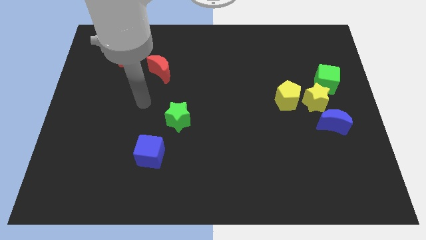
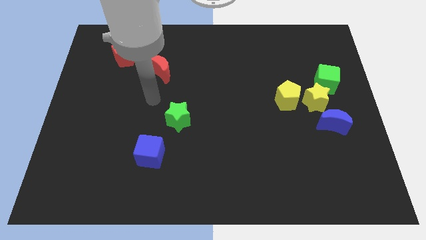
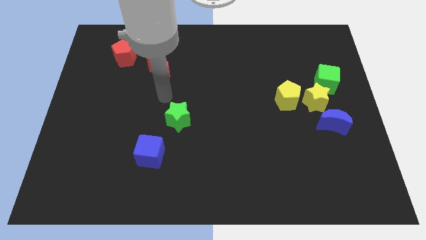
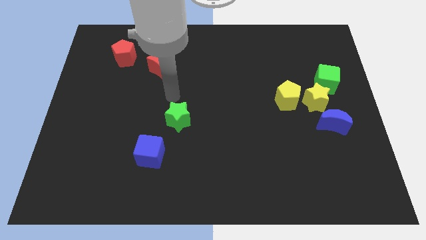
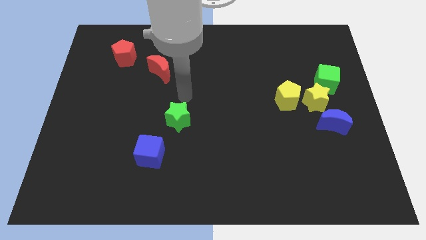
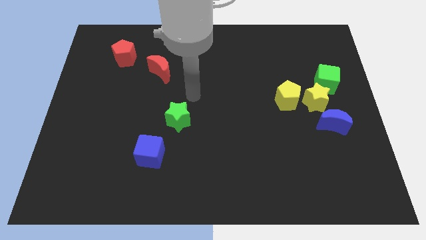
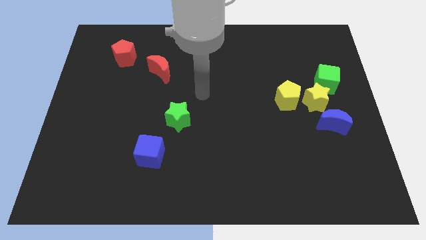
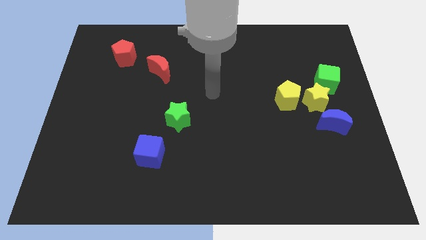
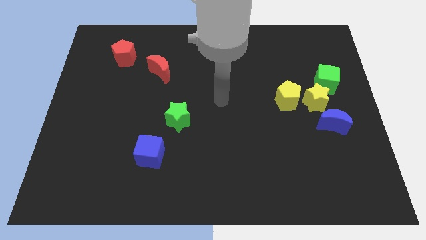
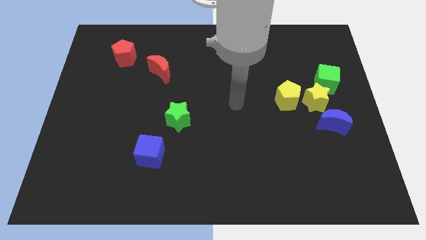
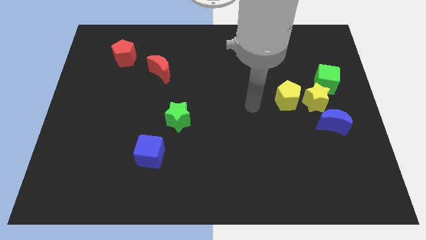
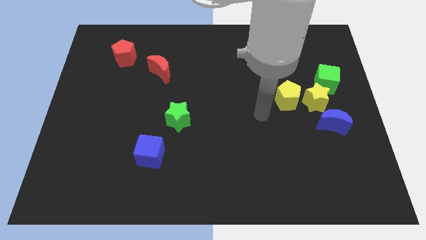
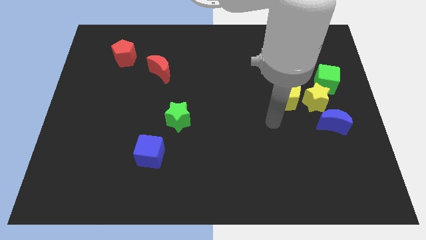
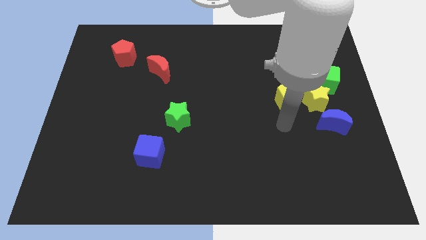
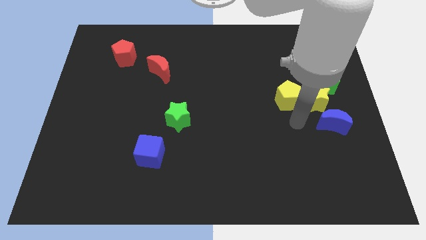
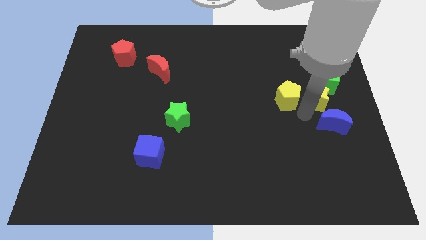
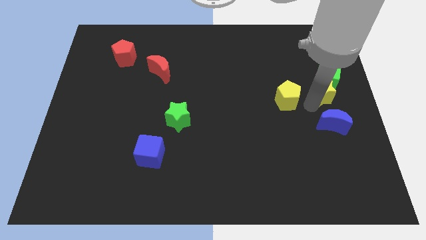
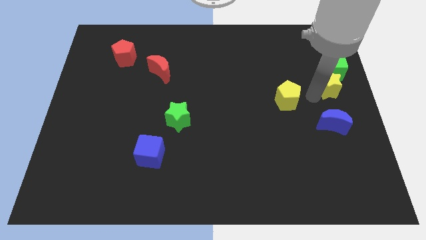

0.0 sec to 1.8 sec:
pull the yellow pentagon apart from the yellow star

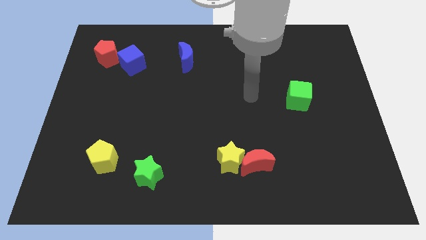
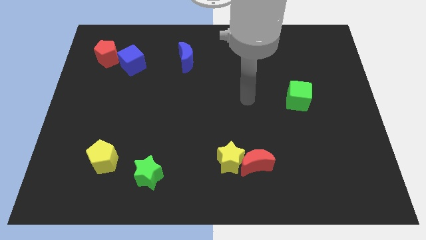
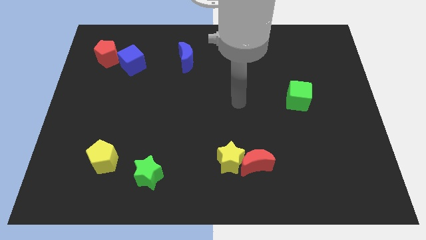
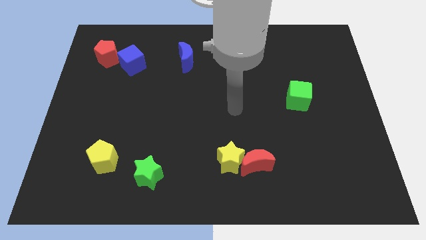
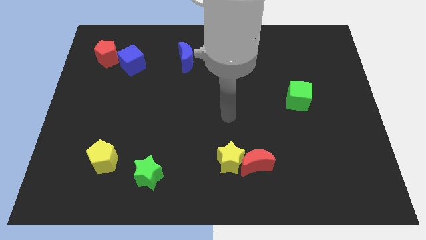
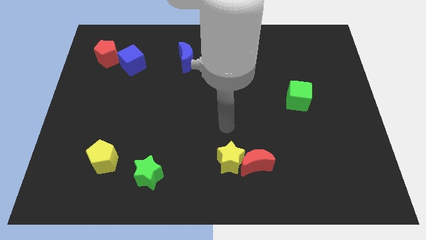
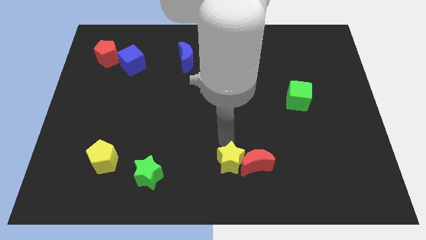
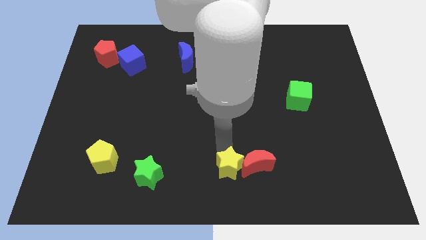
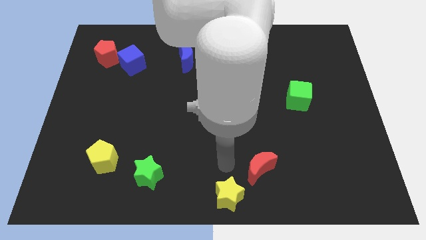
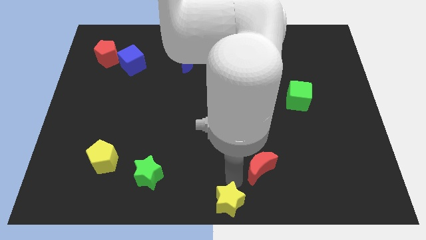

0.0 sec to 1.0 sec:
move the red moon away from the yellow star

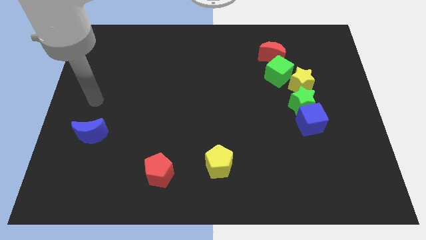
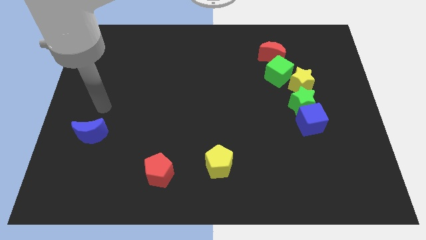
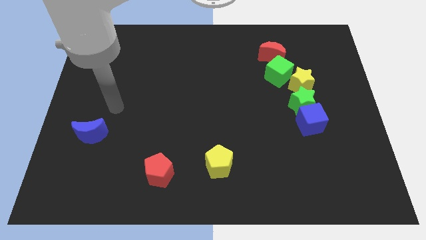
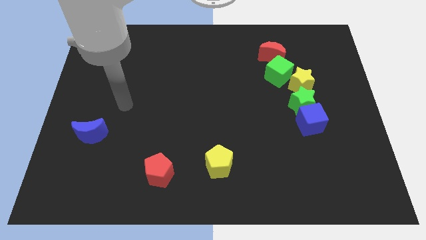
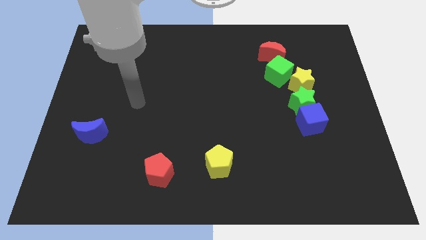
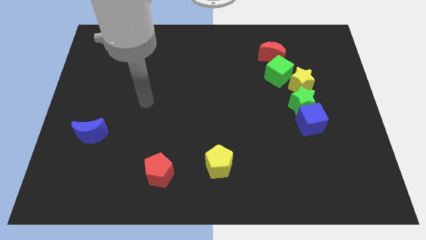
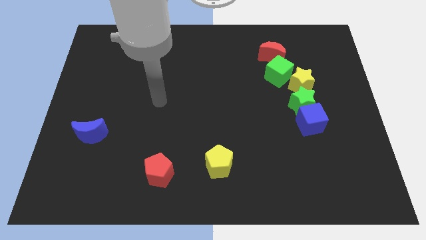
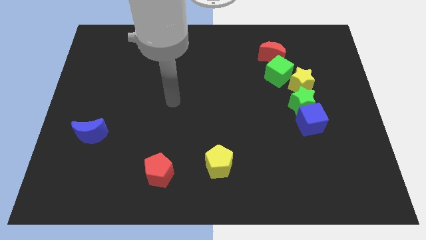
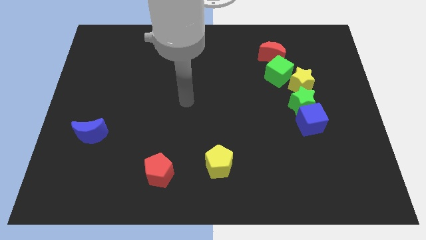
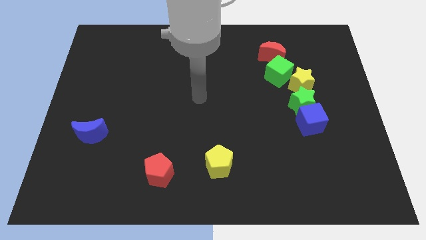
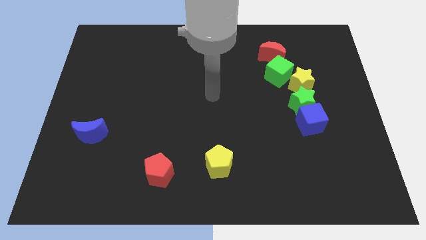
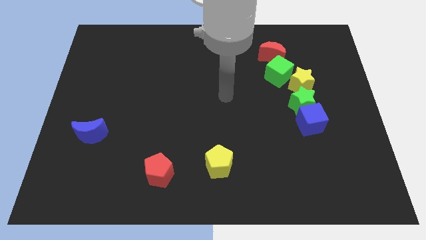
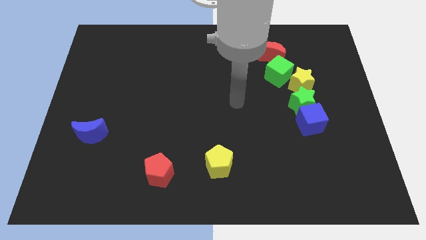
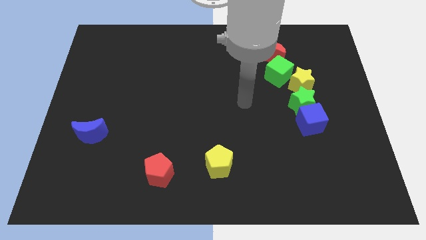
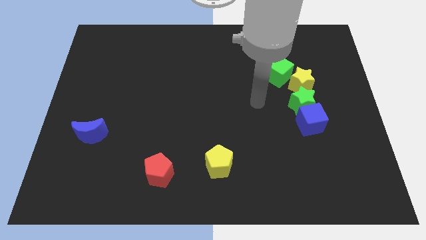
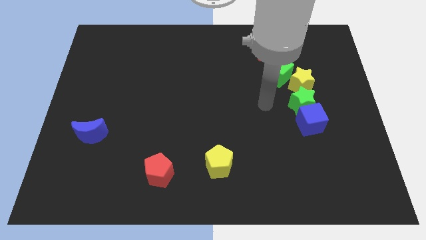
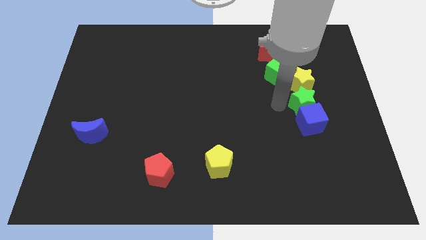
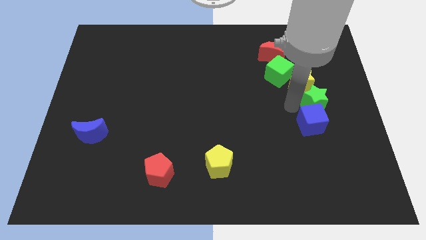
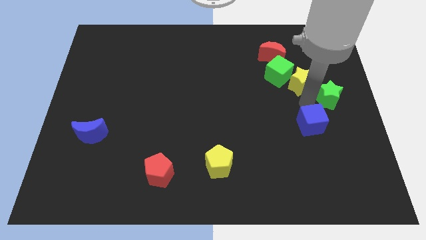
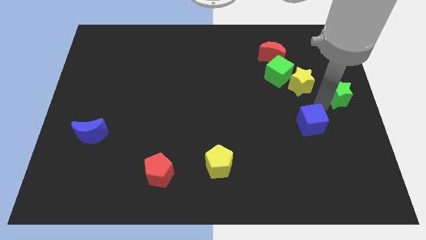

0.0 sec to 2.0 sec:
pull the blue cube apart from the green star

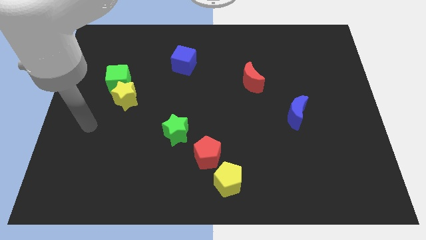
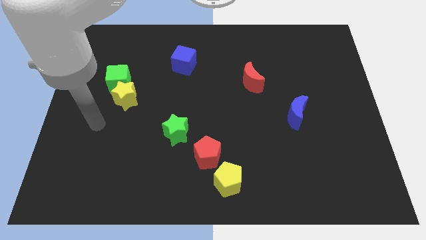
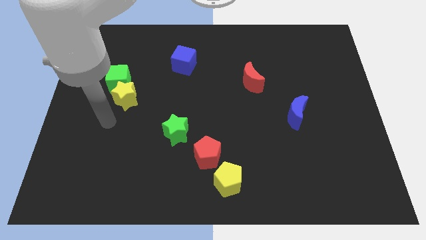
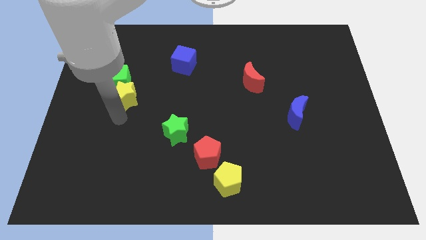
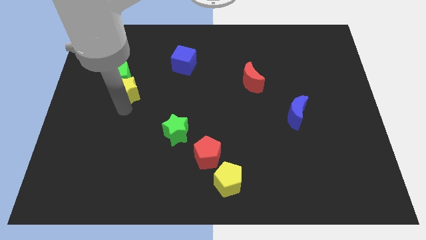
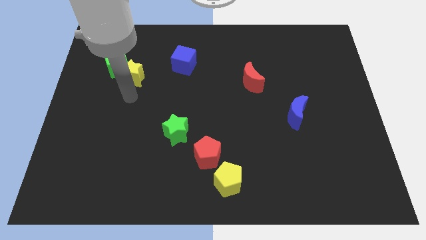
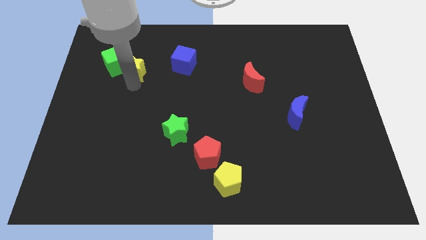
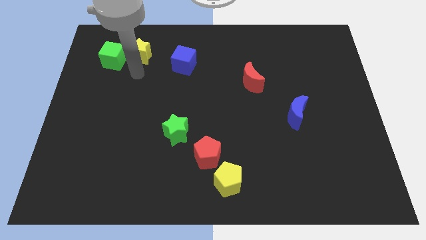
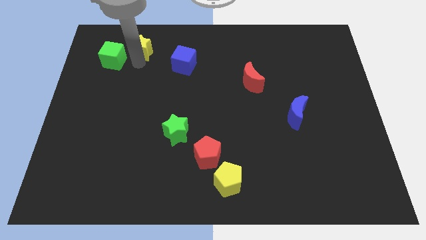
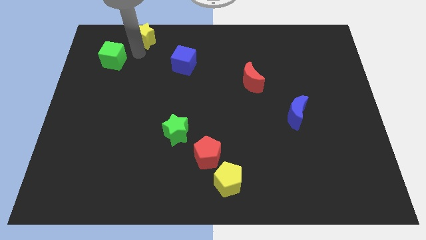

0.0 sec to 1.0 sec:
pull the green cube apart from the yellow star

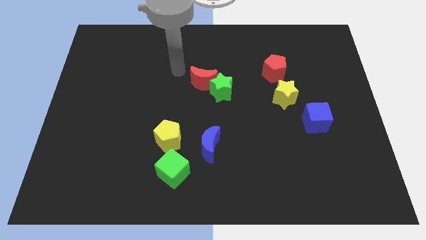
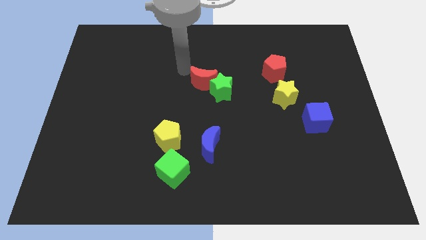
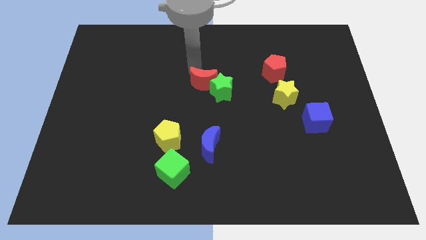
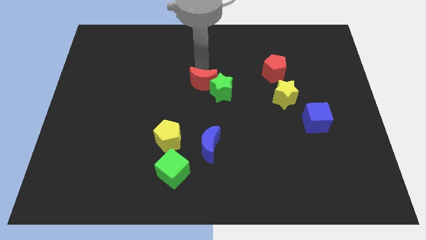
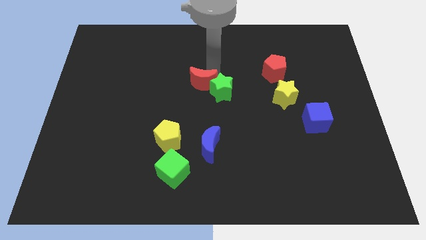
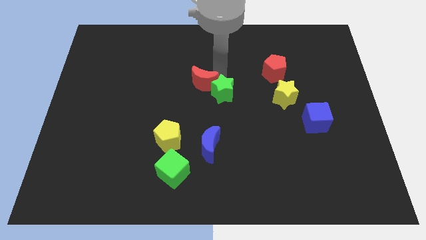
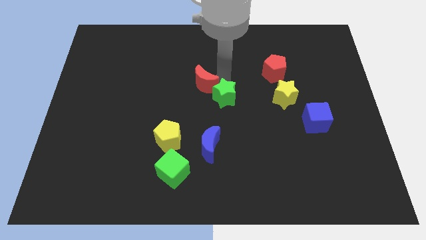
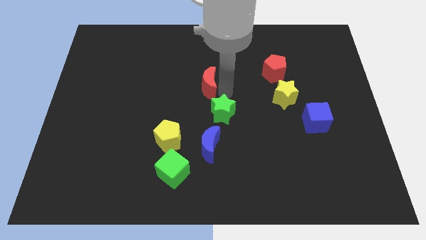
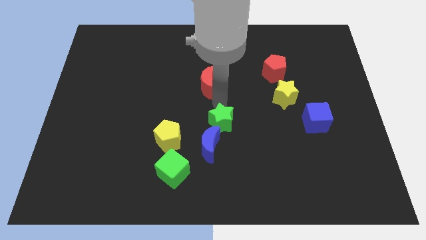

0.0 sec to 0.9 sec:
pull the red moon apart from the green star

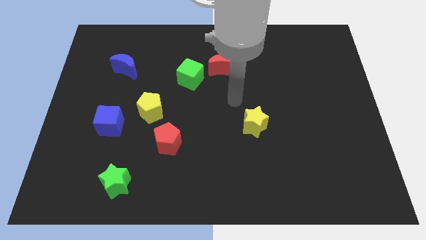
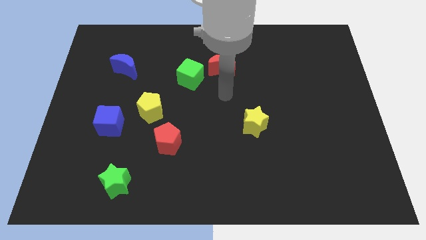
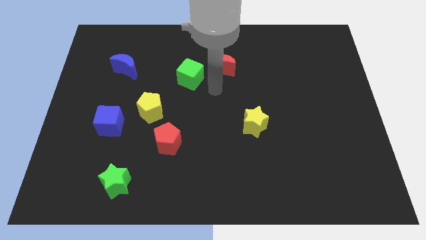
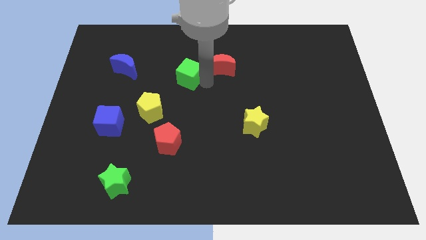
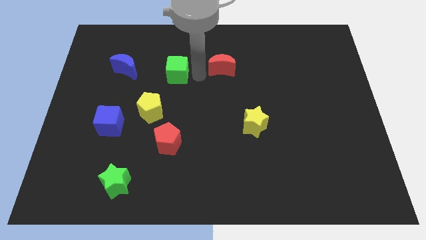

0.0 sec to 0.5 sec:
move the red moon away from the green cube

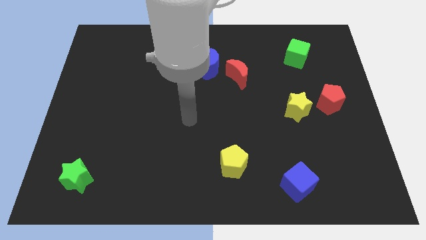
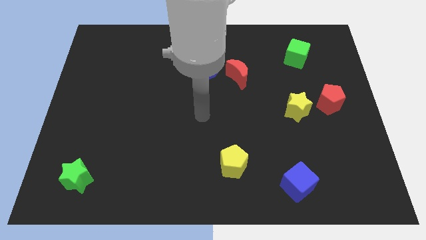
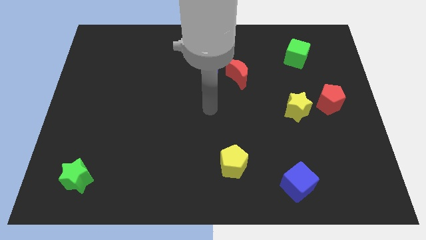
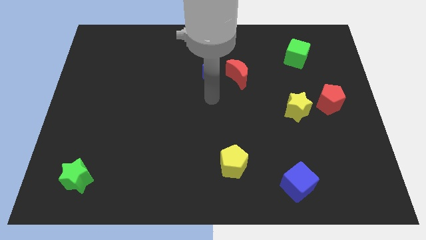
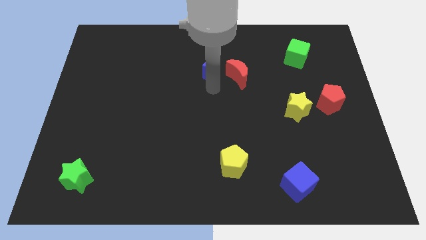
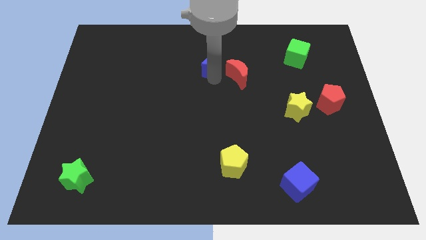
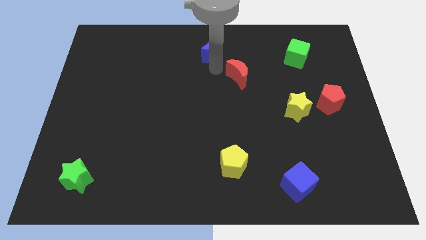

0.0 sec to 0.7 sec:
pull the red moon apart from the blue moon

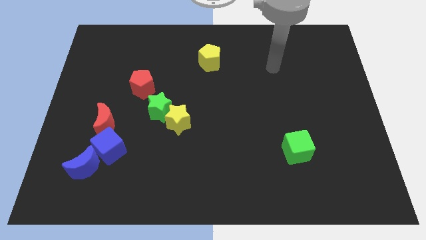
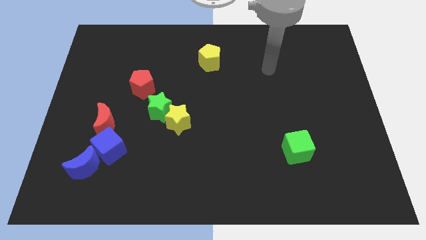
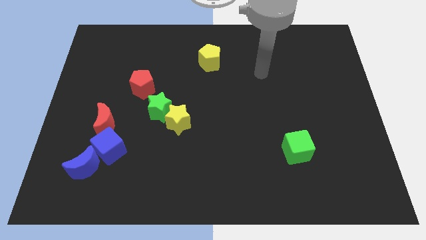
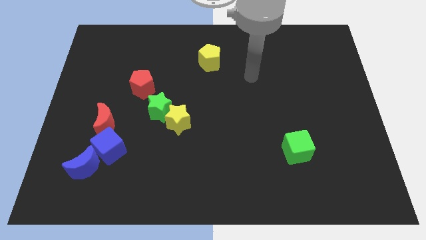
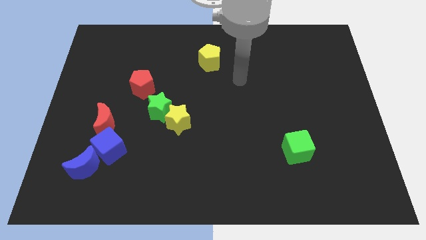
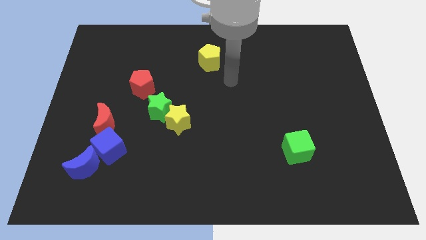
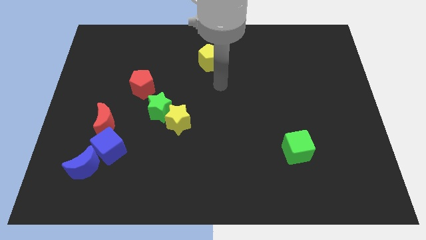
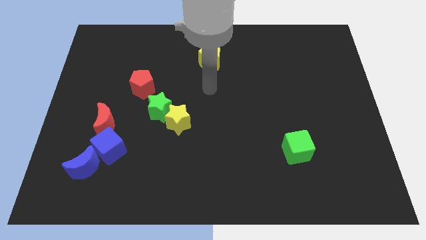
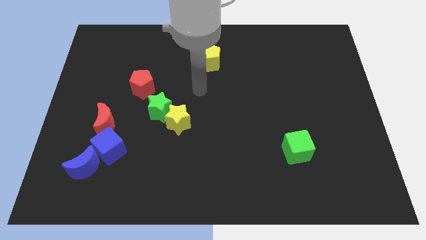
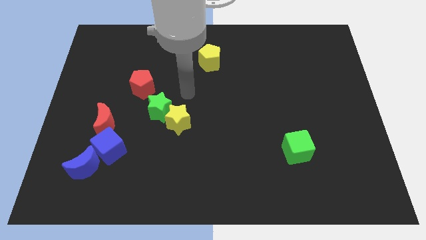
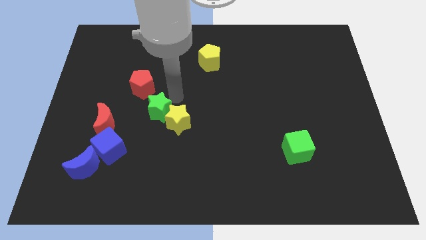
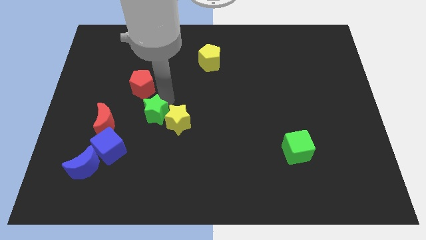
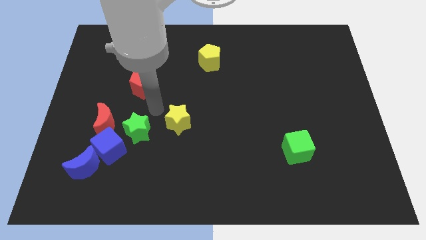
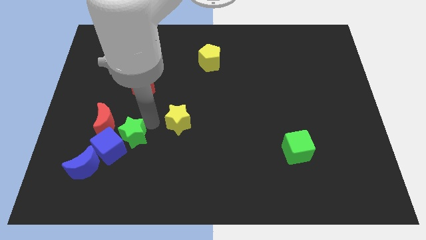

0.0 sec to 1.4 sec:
separate the yellow star from the green star
